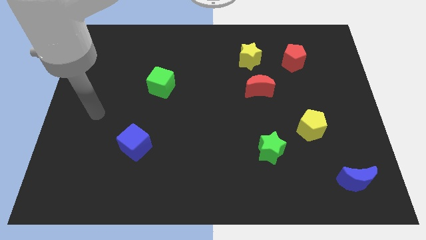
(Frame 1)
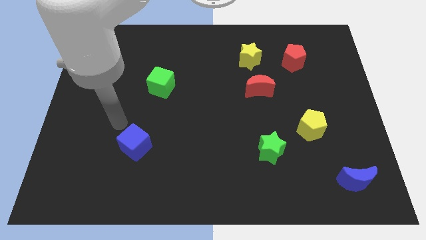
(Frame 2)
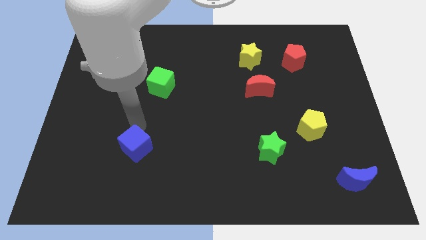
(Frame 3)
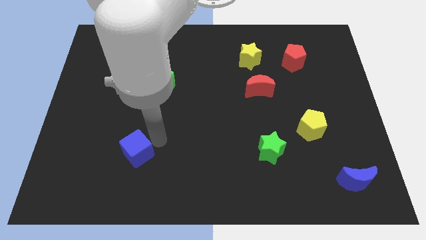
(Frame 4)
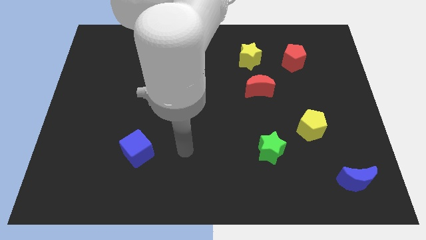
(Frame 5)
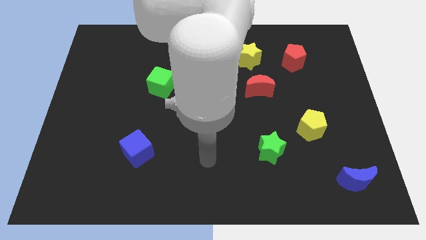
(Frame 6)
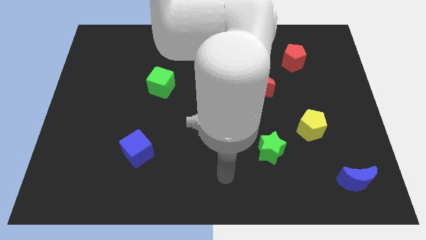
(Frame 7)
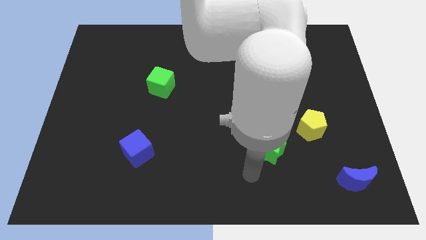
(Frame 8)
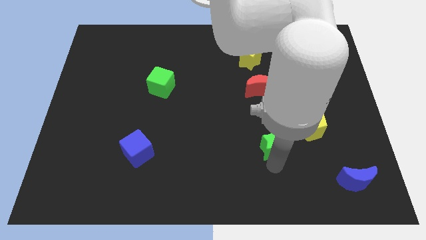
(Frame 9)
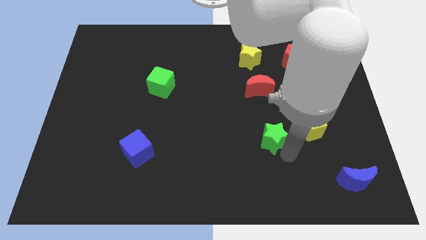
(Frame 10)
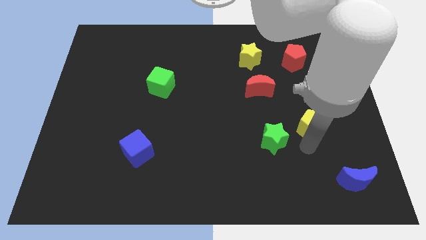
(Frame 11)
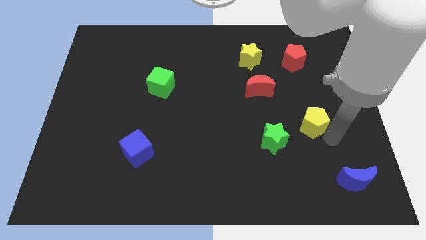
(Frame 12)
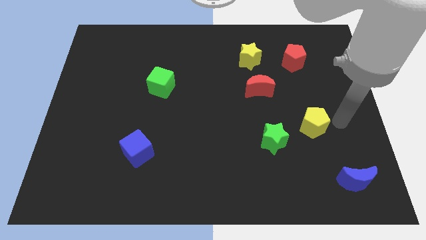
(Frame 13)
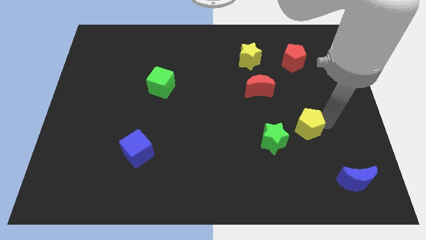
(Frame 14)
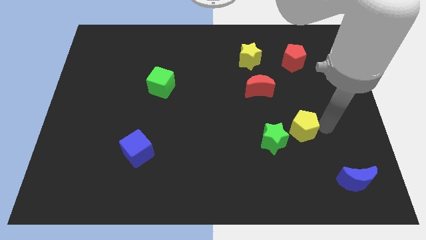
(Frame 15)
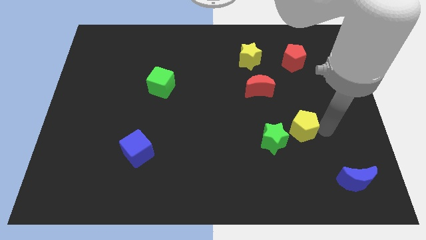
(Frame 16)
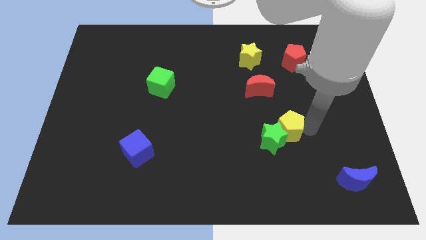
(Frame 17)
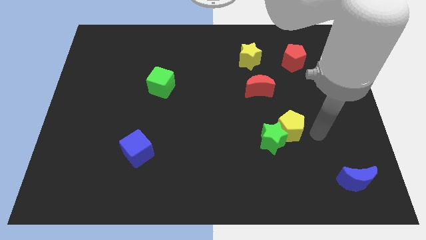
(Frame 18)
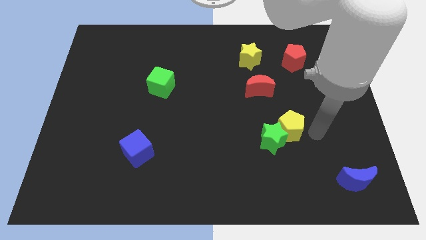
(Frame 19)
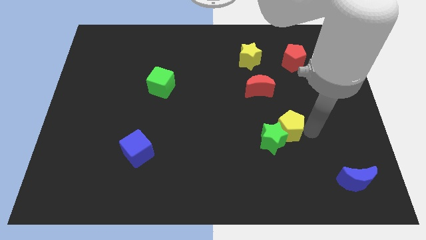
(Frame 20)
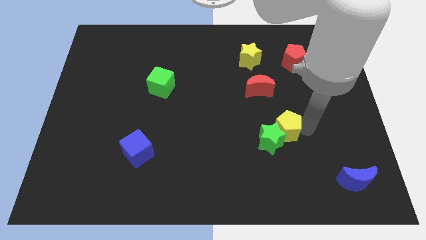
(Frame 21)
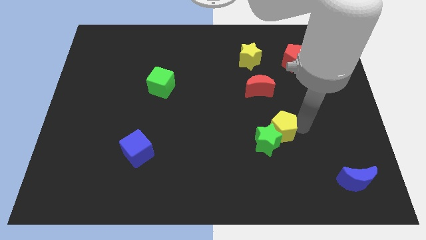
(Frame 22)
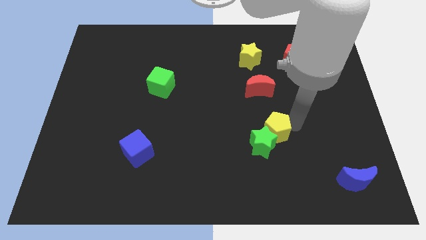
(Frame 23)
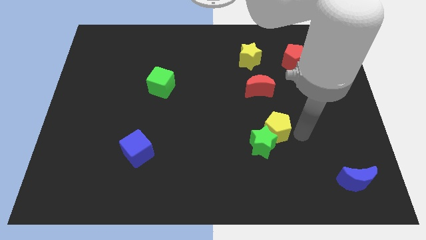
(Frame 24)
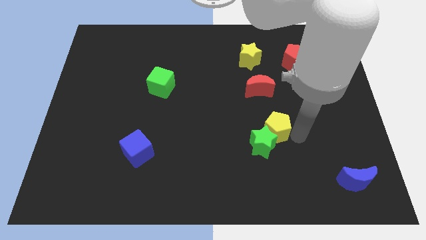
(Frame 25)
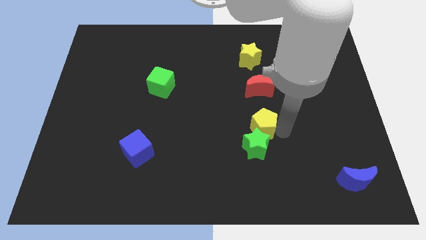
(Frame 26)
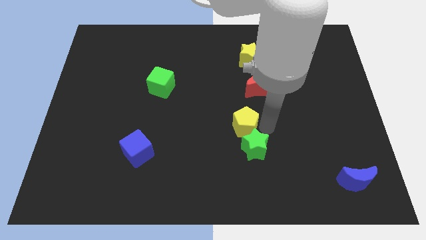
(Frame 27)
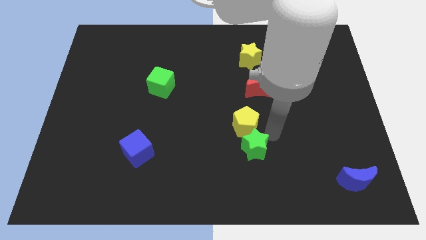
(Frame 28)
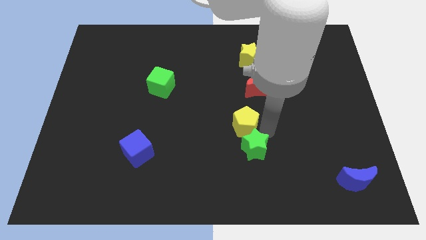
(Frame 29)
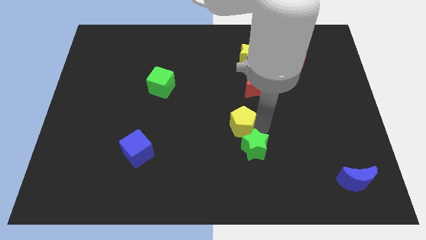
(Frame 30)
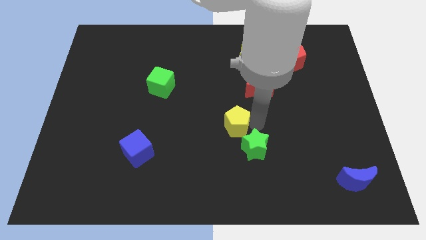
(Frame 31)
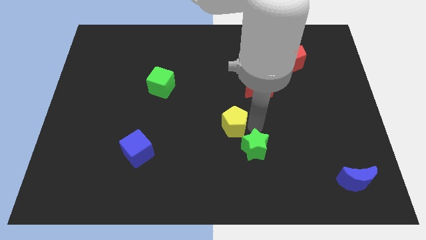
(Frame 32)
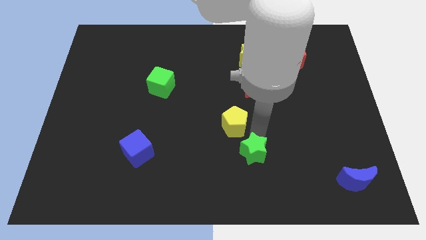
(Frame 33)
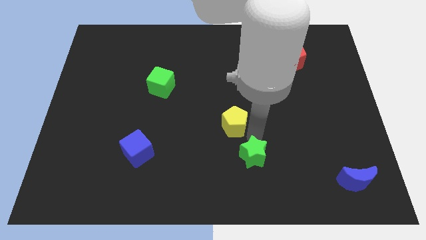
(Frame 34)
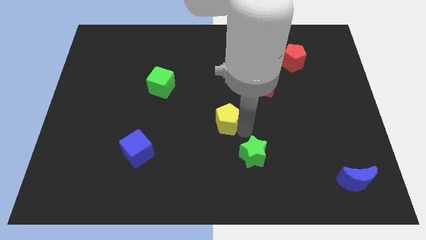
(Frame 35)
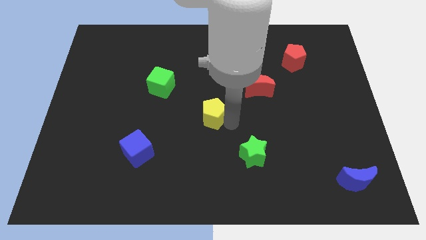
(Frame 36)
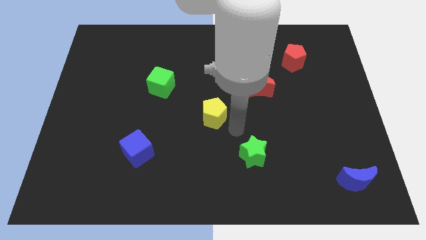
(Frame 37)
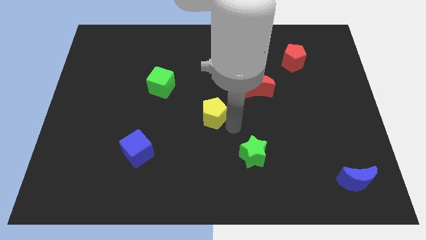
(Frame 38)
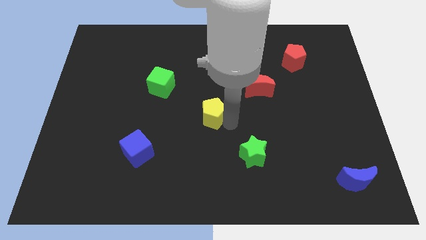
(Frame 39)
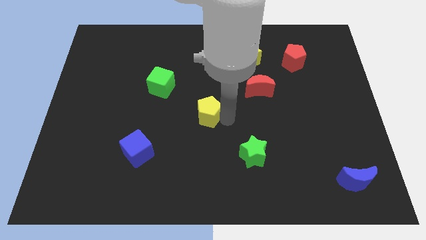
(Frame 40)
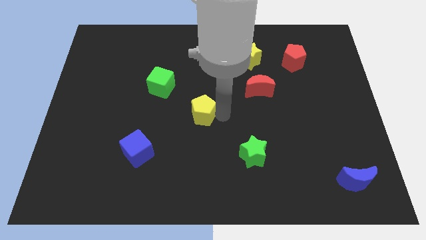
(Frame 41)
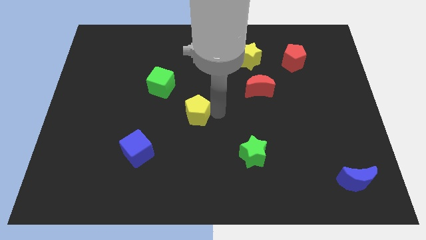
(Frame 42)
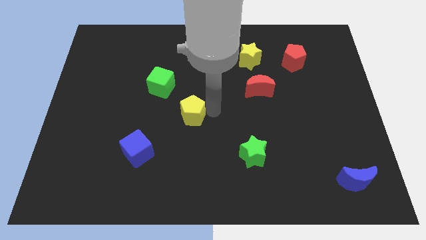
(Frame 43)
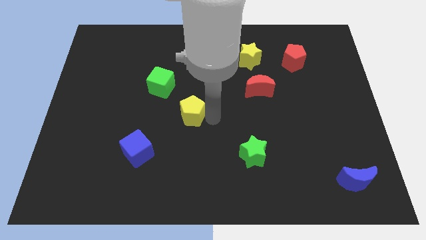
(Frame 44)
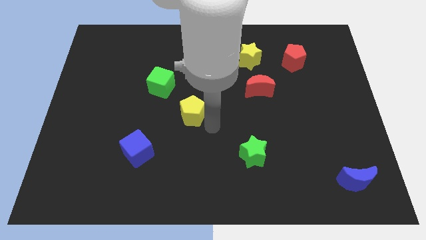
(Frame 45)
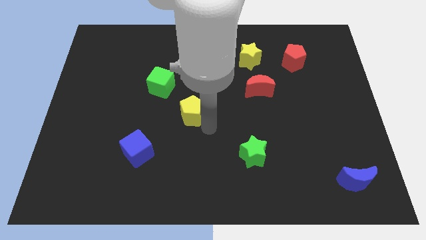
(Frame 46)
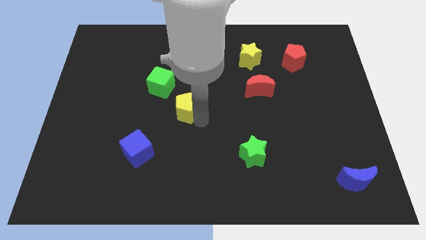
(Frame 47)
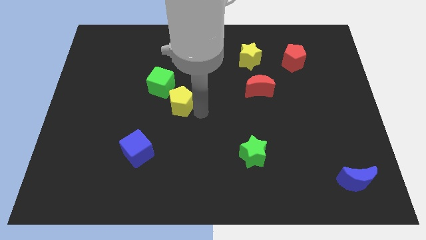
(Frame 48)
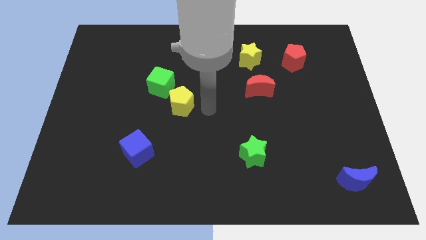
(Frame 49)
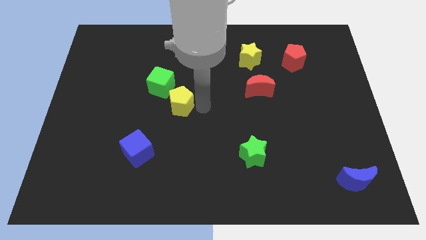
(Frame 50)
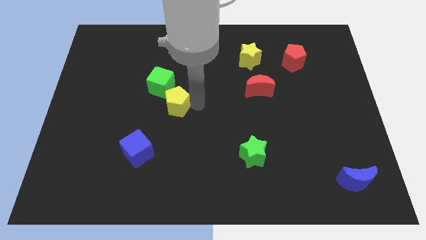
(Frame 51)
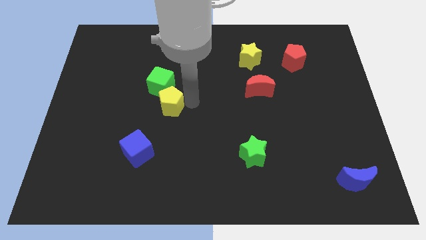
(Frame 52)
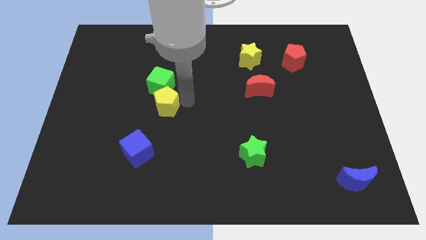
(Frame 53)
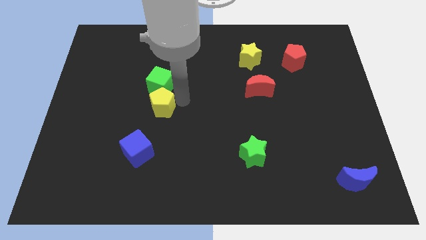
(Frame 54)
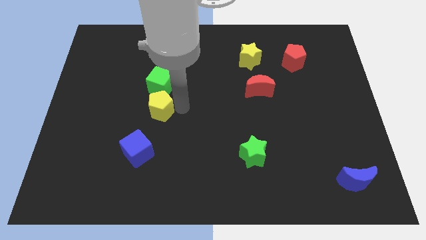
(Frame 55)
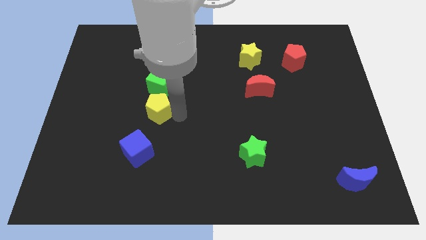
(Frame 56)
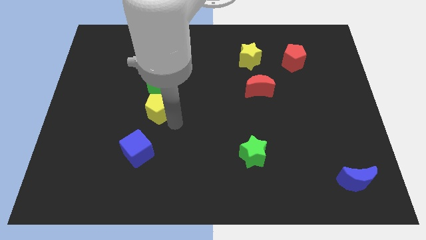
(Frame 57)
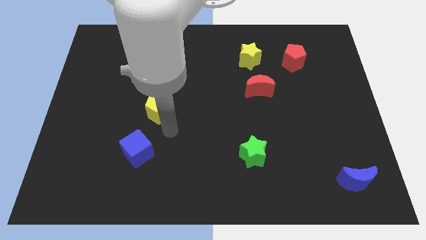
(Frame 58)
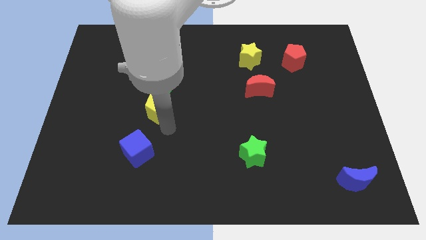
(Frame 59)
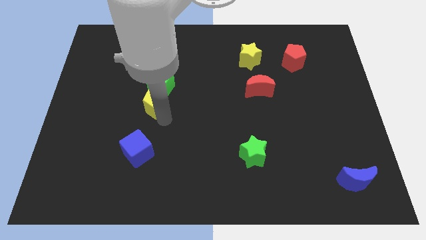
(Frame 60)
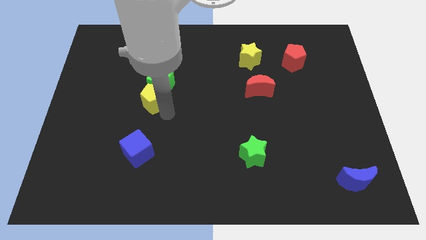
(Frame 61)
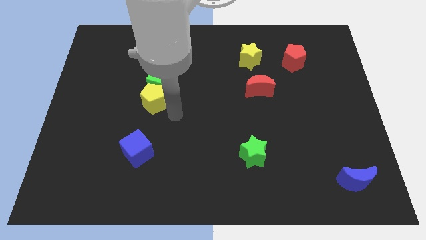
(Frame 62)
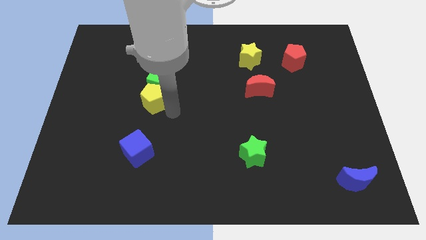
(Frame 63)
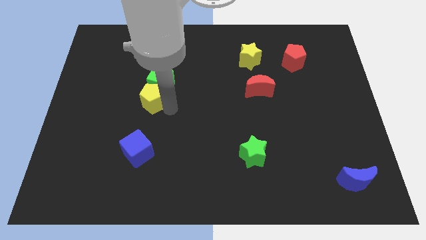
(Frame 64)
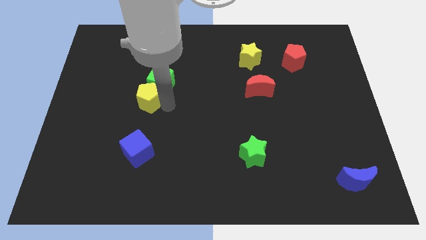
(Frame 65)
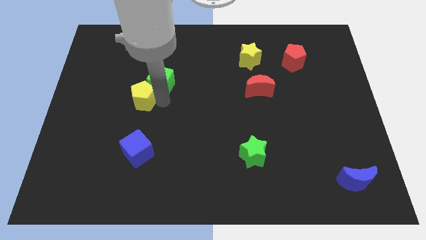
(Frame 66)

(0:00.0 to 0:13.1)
slide the yellow pentagon to the left side of the green cube
